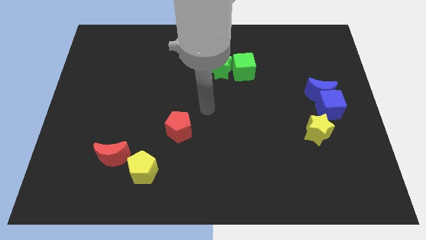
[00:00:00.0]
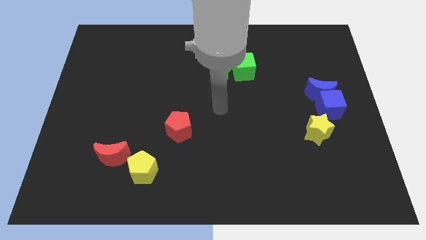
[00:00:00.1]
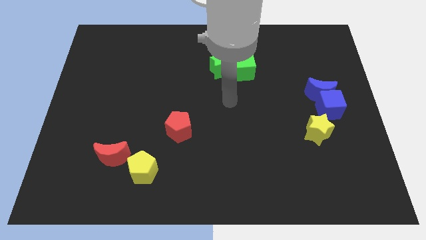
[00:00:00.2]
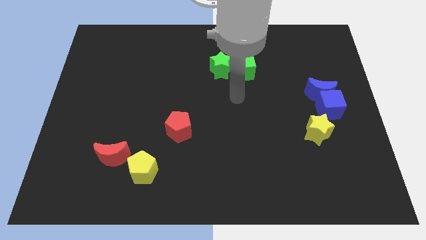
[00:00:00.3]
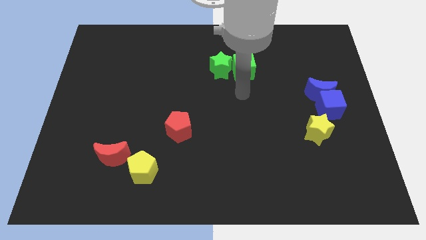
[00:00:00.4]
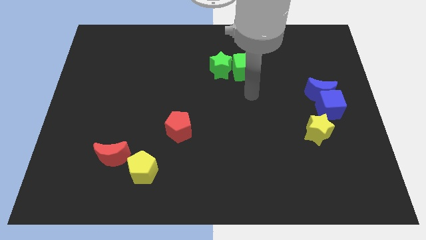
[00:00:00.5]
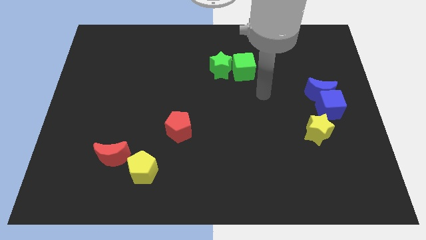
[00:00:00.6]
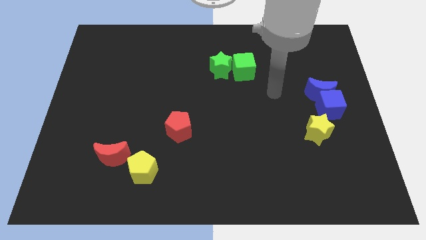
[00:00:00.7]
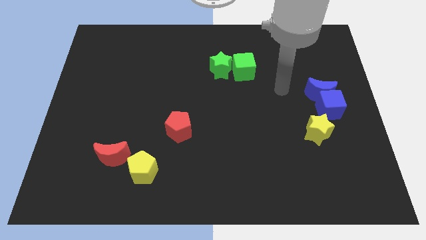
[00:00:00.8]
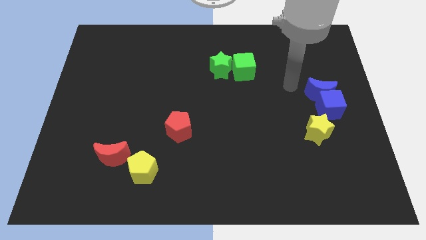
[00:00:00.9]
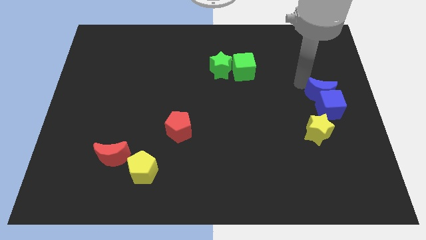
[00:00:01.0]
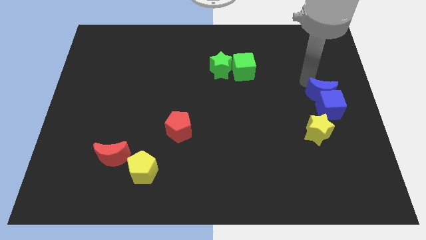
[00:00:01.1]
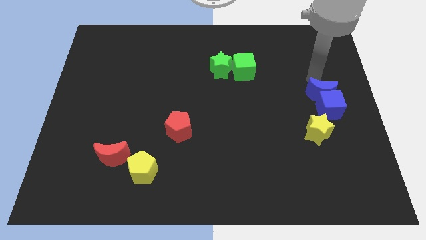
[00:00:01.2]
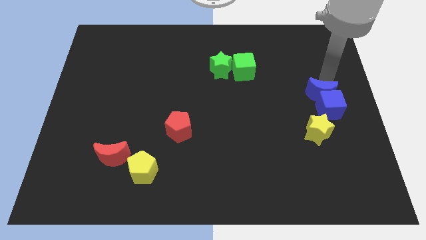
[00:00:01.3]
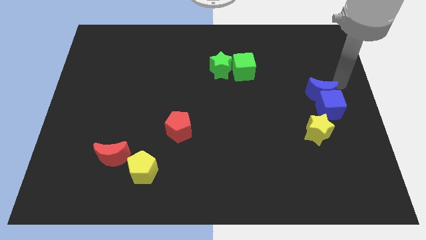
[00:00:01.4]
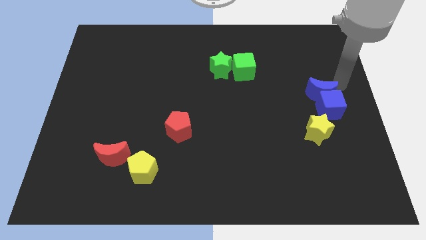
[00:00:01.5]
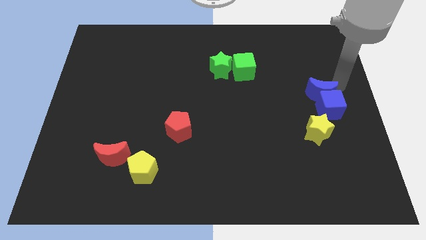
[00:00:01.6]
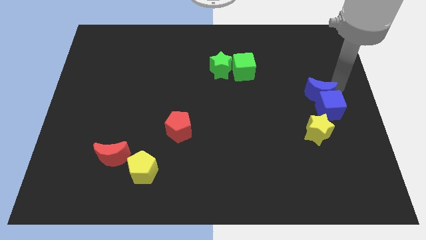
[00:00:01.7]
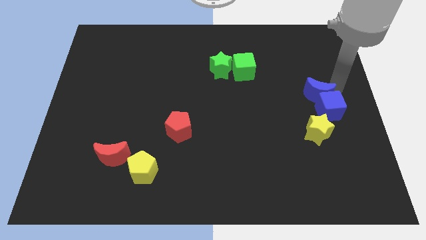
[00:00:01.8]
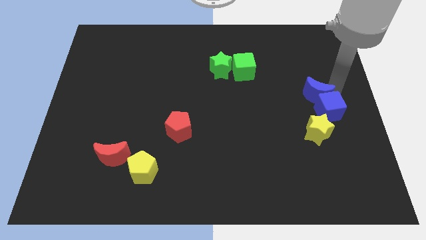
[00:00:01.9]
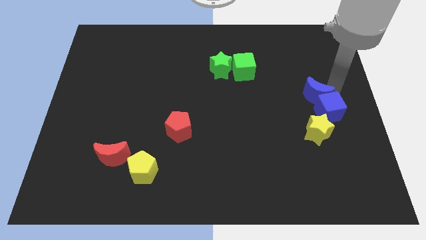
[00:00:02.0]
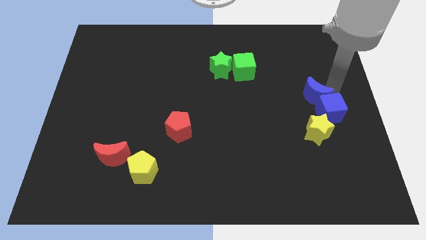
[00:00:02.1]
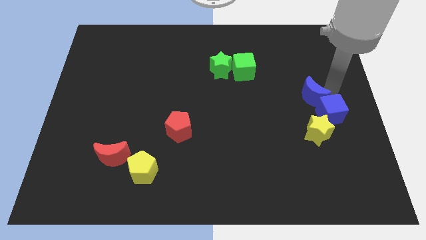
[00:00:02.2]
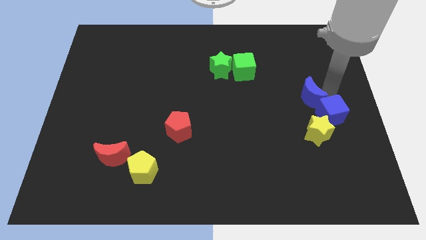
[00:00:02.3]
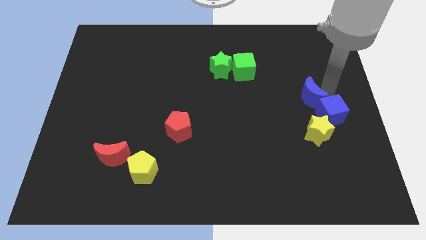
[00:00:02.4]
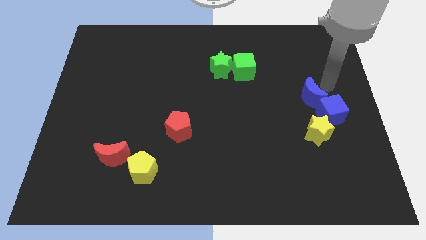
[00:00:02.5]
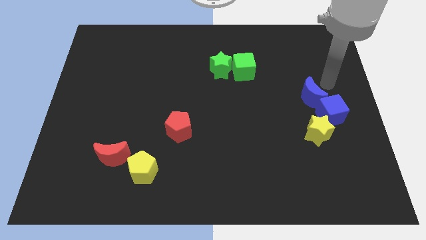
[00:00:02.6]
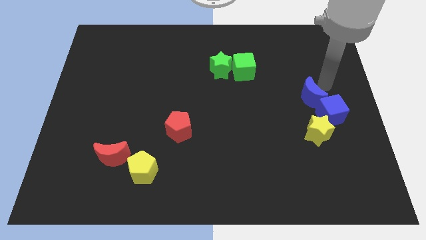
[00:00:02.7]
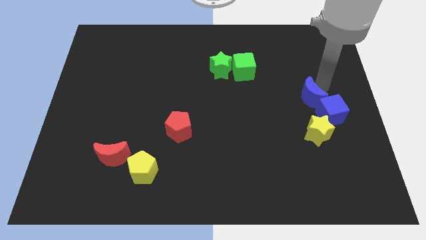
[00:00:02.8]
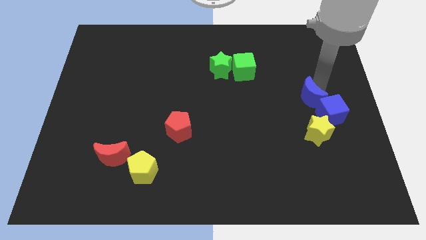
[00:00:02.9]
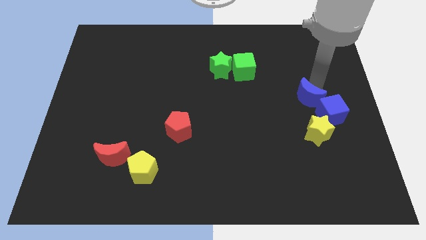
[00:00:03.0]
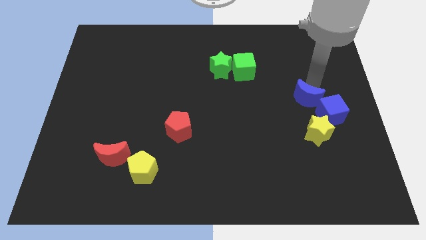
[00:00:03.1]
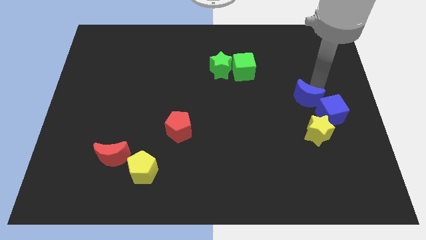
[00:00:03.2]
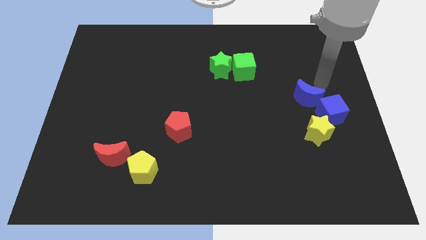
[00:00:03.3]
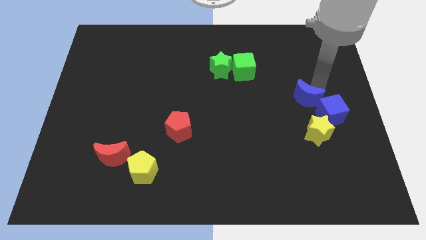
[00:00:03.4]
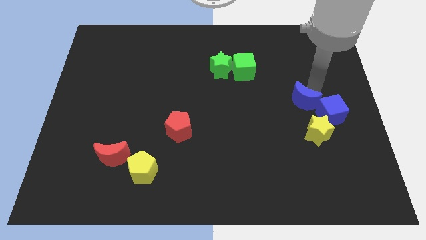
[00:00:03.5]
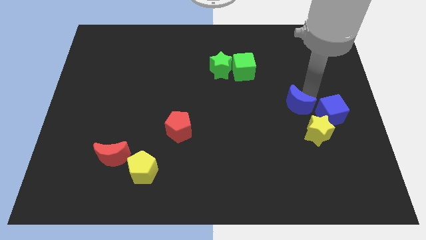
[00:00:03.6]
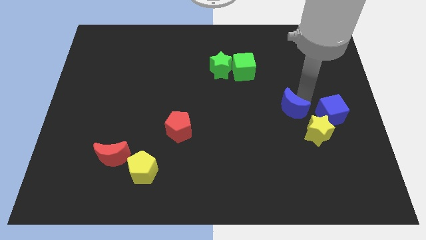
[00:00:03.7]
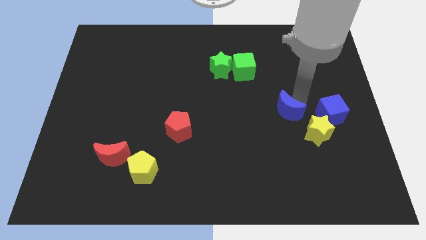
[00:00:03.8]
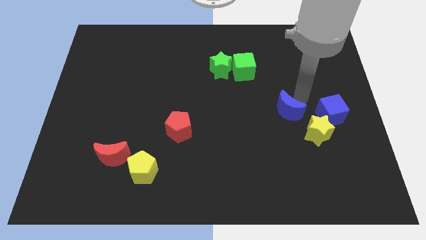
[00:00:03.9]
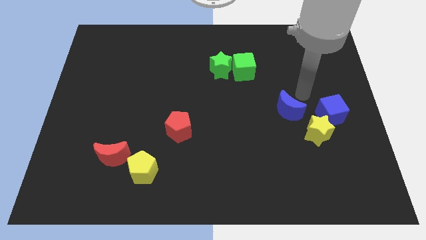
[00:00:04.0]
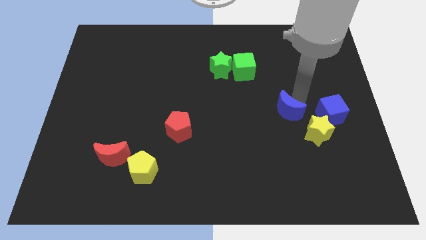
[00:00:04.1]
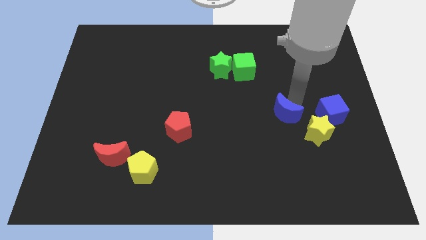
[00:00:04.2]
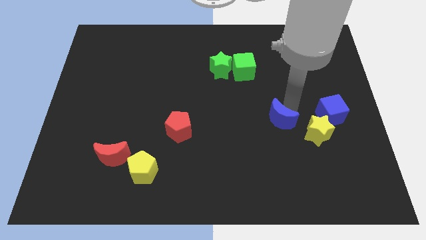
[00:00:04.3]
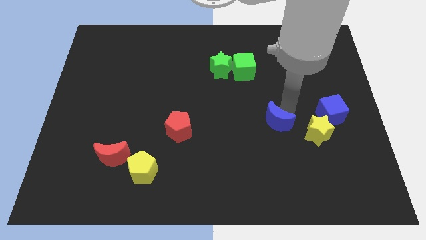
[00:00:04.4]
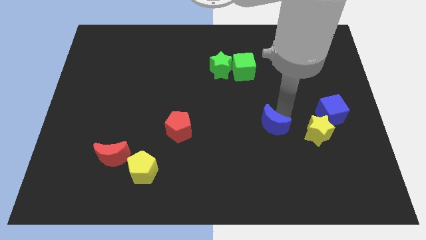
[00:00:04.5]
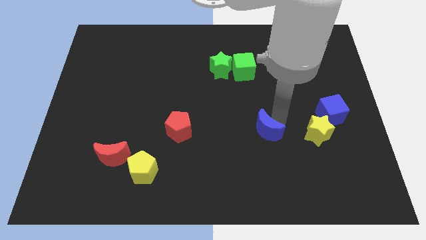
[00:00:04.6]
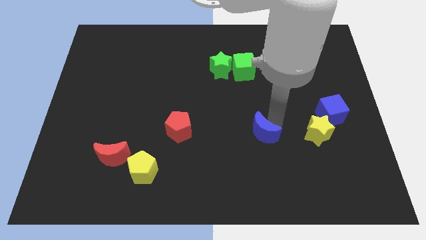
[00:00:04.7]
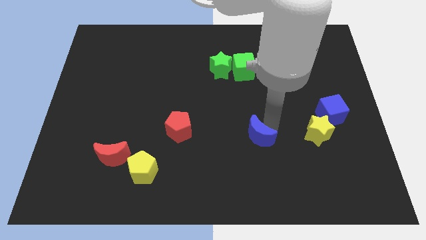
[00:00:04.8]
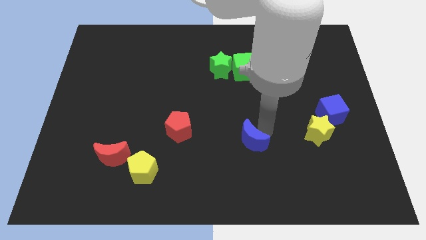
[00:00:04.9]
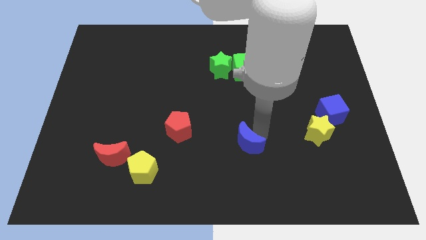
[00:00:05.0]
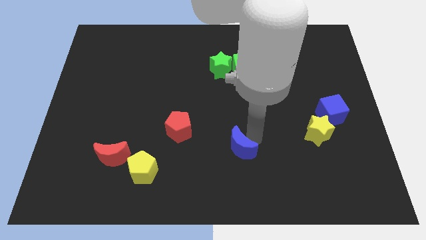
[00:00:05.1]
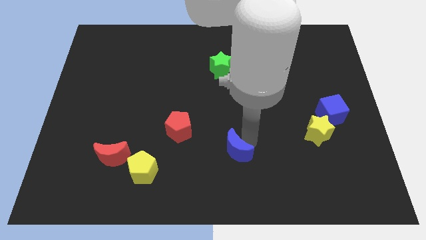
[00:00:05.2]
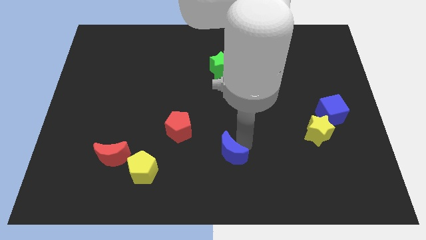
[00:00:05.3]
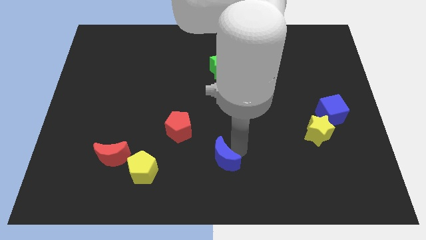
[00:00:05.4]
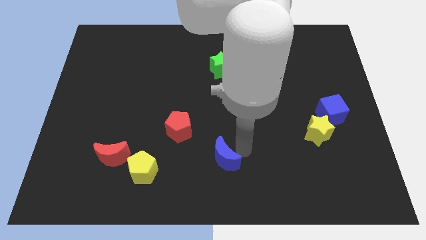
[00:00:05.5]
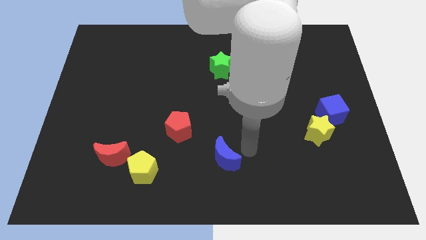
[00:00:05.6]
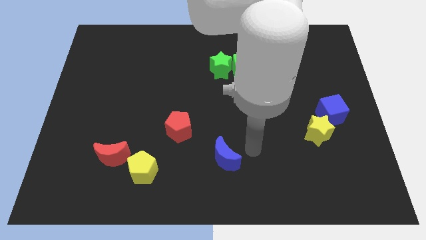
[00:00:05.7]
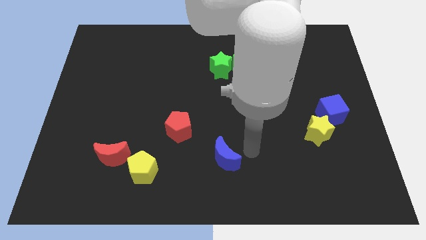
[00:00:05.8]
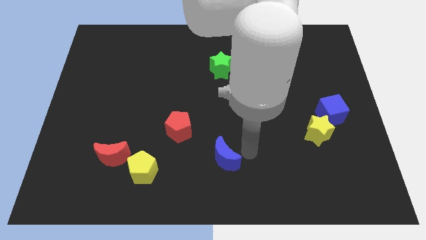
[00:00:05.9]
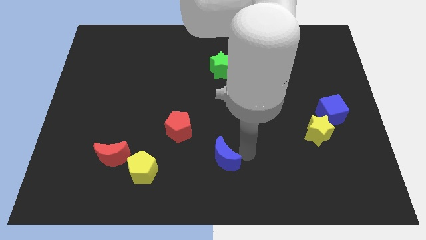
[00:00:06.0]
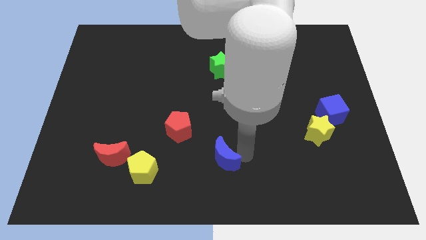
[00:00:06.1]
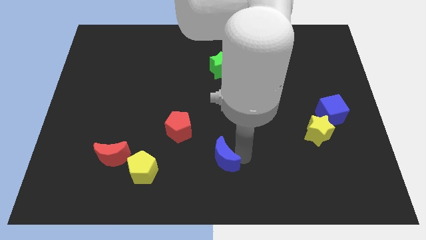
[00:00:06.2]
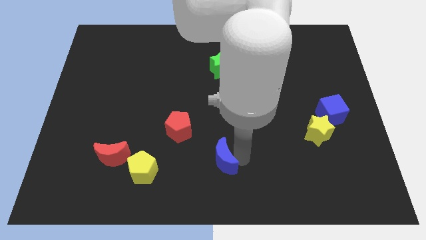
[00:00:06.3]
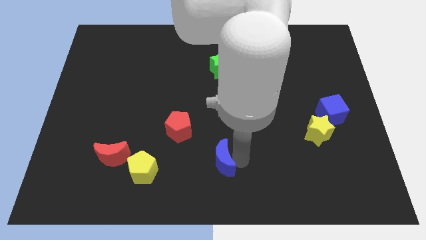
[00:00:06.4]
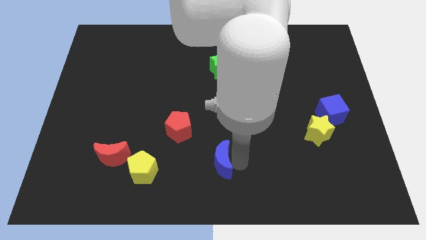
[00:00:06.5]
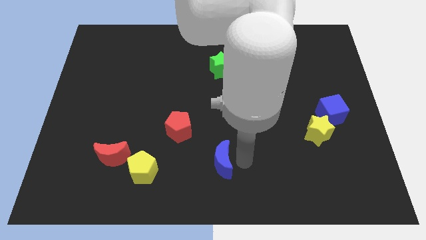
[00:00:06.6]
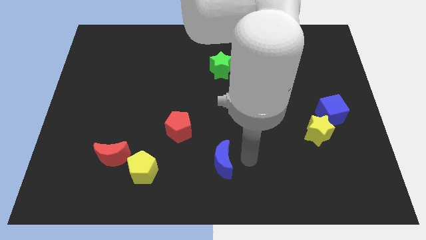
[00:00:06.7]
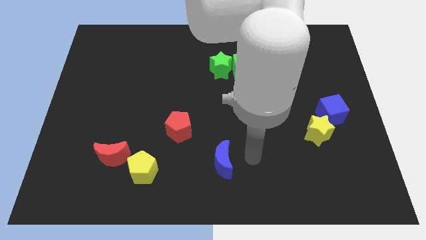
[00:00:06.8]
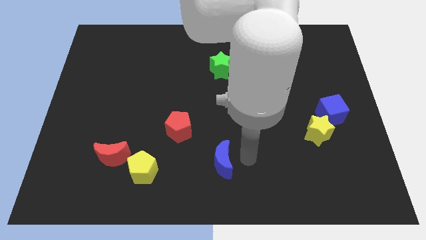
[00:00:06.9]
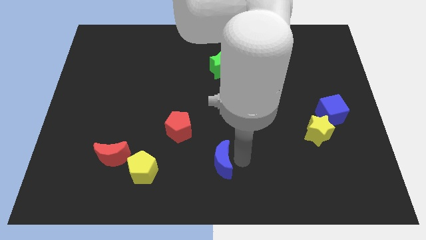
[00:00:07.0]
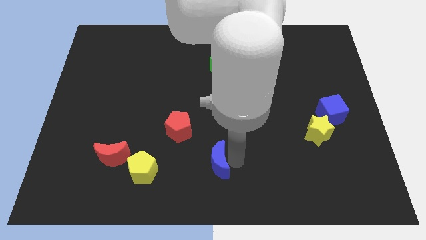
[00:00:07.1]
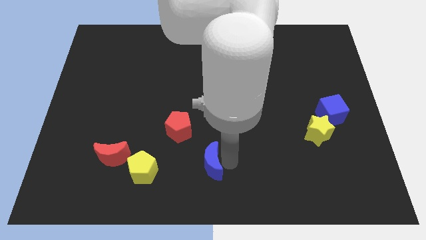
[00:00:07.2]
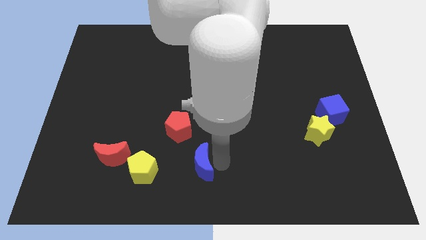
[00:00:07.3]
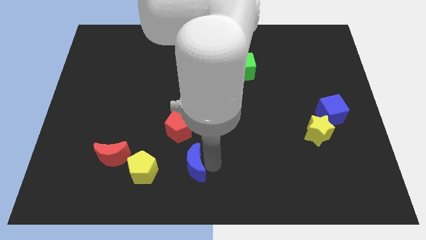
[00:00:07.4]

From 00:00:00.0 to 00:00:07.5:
slide the blue moon to the bottom of the red pentagon
